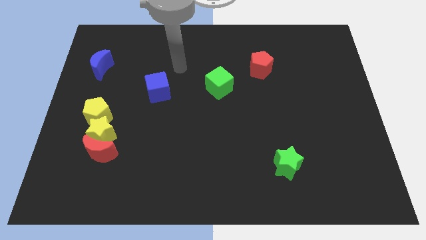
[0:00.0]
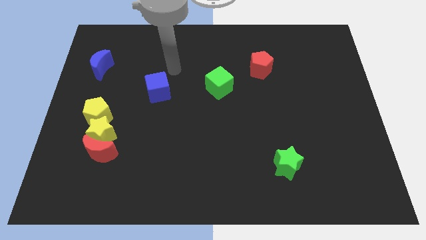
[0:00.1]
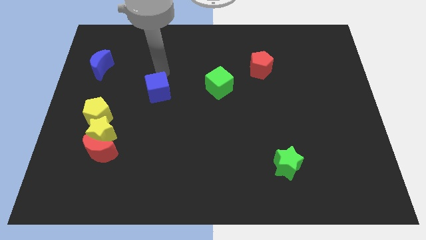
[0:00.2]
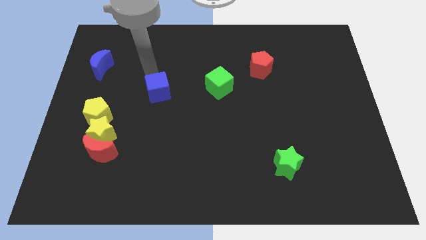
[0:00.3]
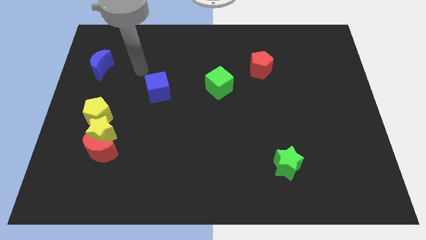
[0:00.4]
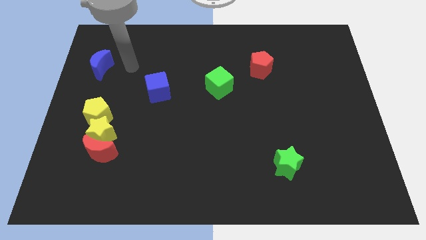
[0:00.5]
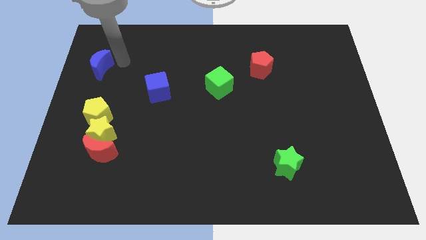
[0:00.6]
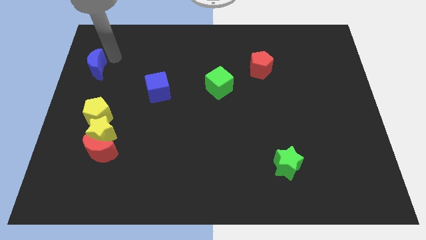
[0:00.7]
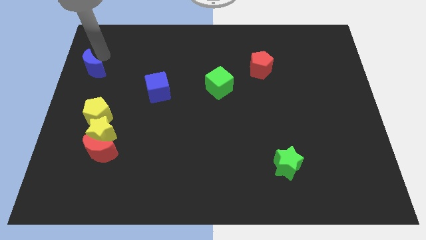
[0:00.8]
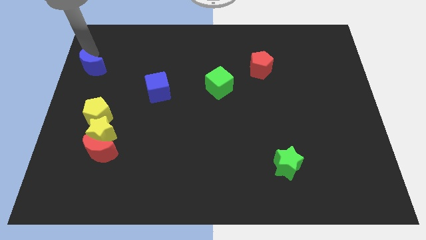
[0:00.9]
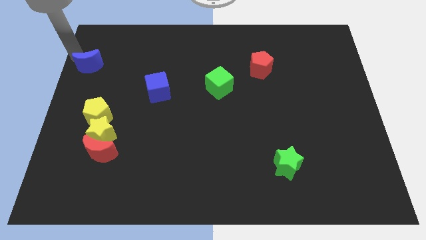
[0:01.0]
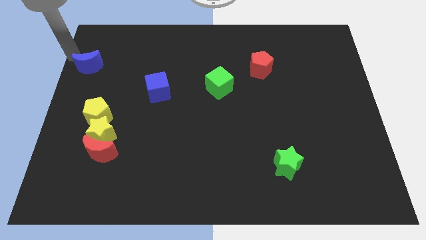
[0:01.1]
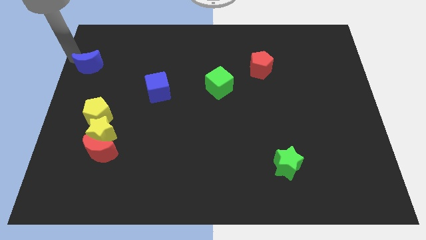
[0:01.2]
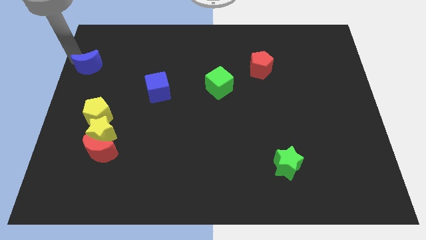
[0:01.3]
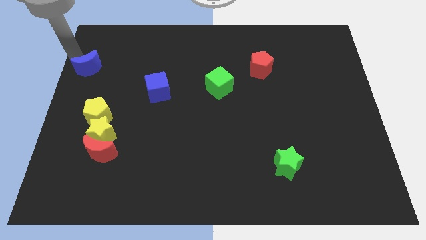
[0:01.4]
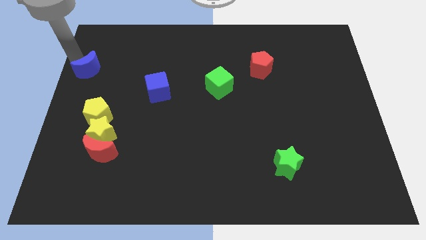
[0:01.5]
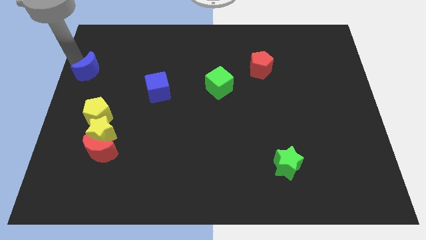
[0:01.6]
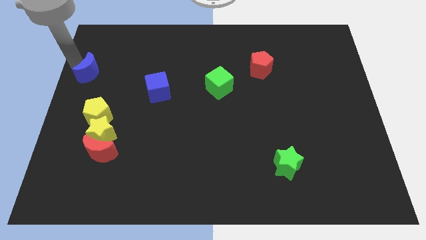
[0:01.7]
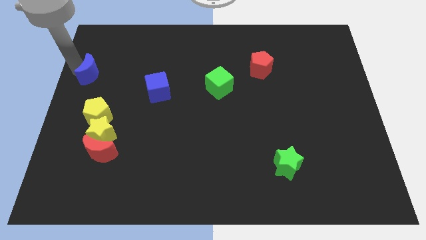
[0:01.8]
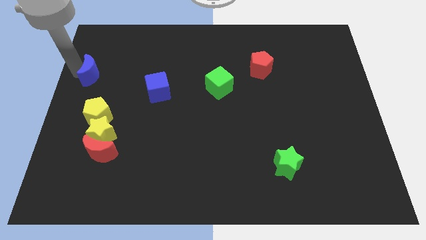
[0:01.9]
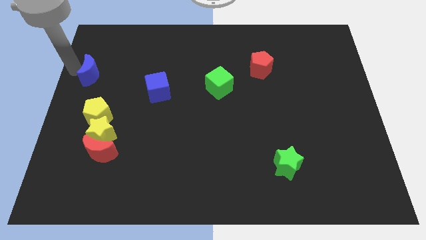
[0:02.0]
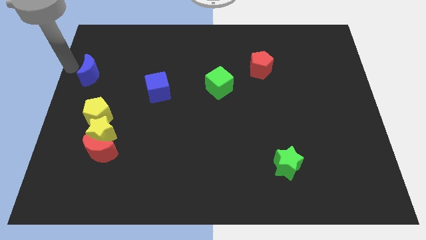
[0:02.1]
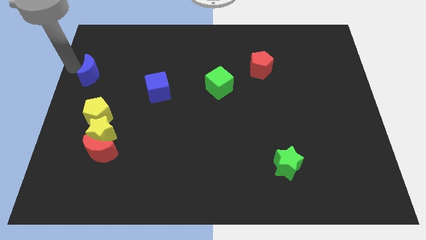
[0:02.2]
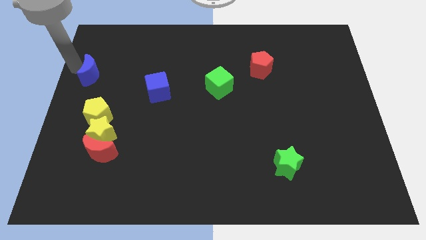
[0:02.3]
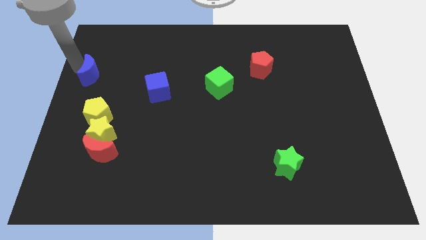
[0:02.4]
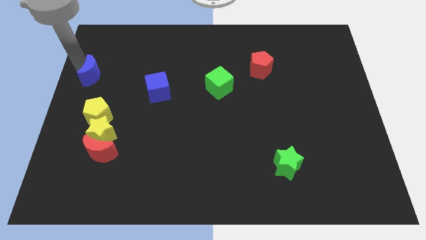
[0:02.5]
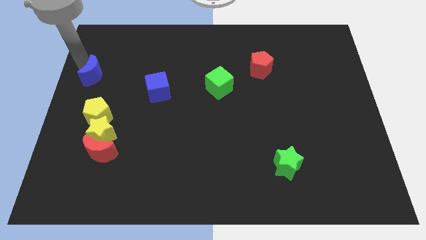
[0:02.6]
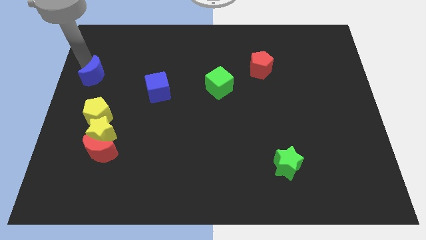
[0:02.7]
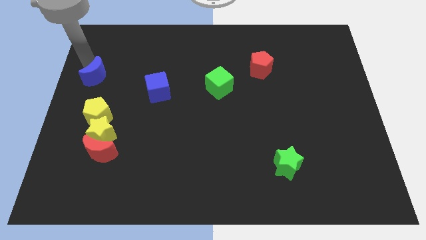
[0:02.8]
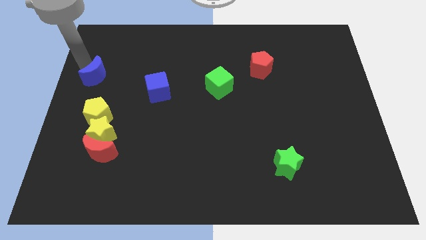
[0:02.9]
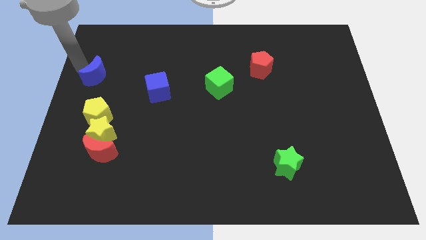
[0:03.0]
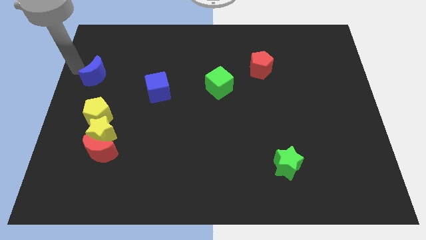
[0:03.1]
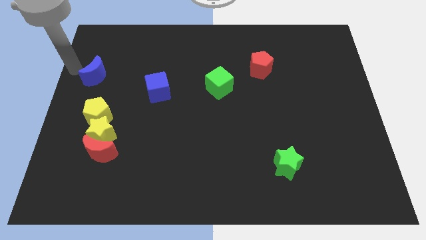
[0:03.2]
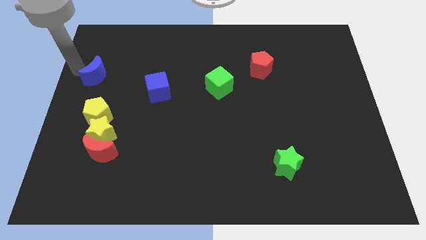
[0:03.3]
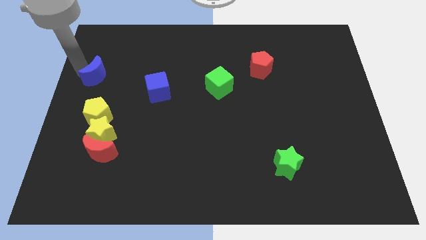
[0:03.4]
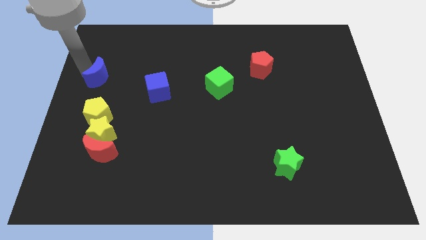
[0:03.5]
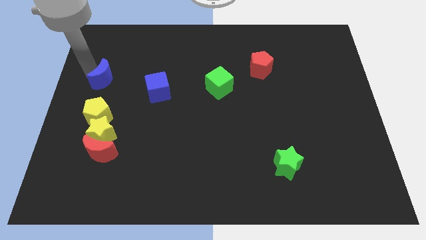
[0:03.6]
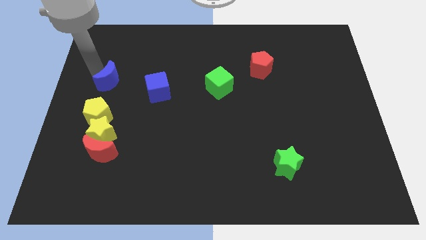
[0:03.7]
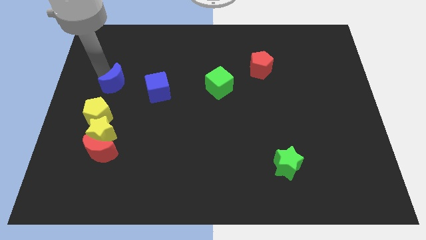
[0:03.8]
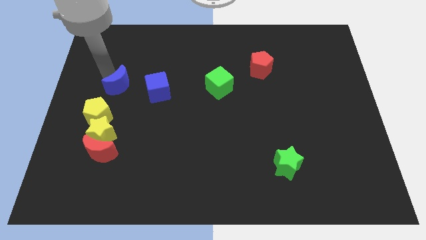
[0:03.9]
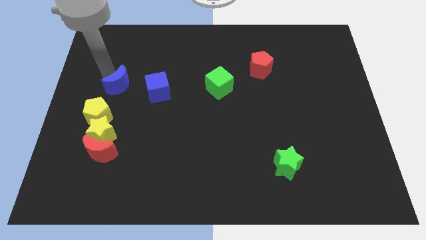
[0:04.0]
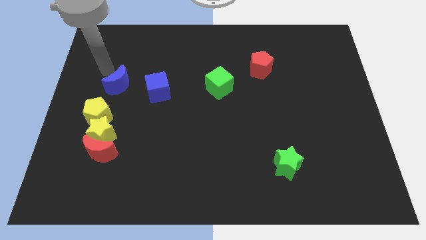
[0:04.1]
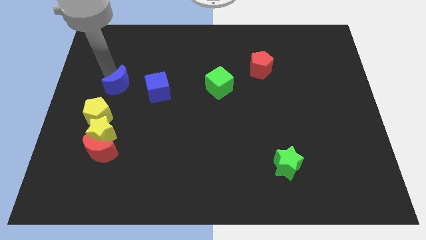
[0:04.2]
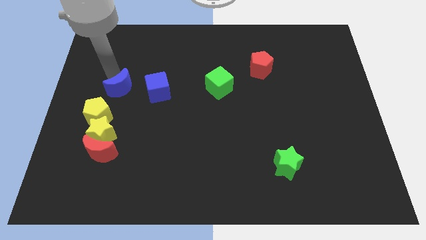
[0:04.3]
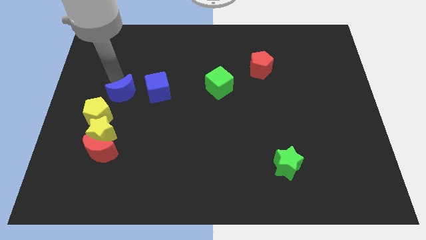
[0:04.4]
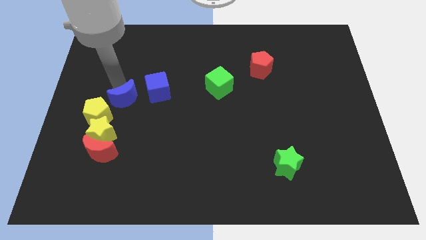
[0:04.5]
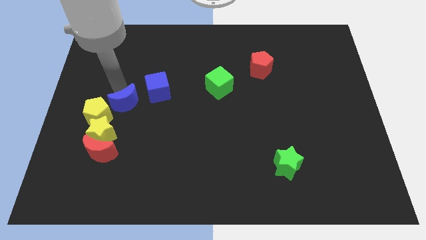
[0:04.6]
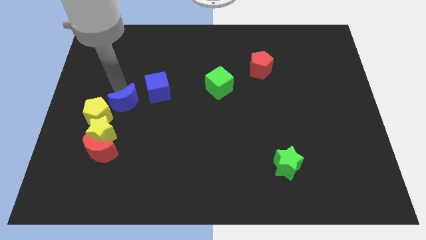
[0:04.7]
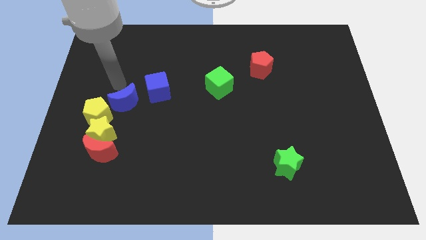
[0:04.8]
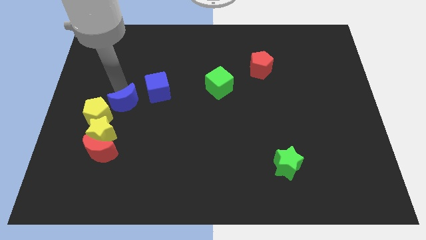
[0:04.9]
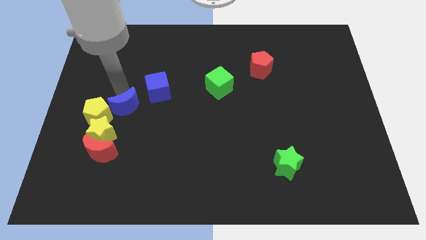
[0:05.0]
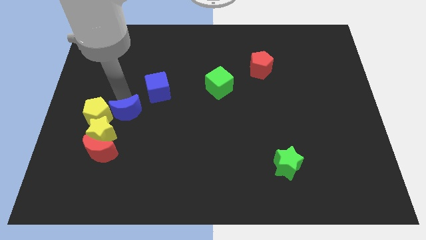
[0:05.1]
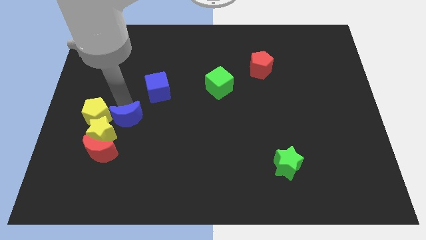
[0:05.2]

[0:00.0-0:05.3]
slide the blue moon to the bottom right of the yellow pentagon

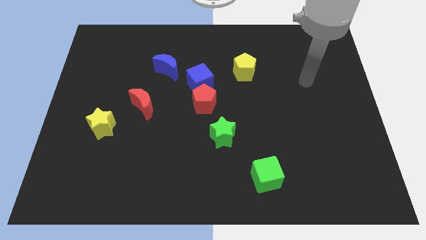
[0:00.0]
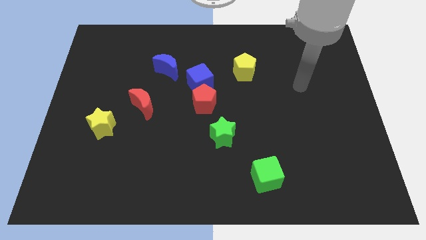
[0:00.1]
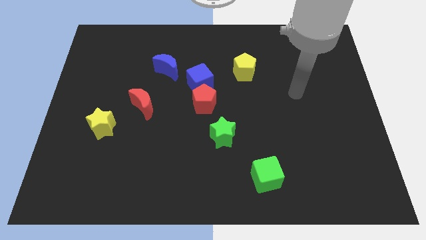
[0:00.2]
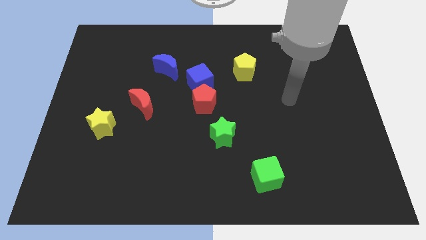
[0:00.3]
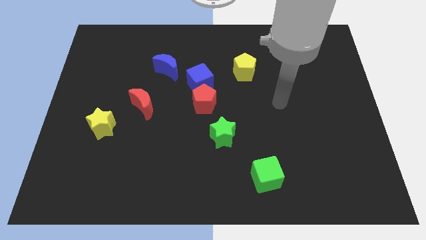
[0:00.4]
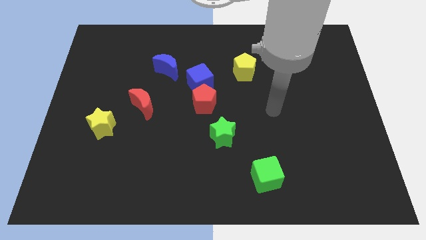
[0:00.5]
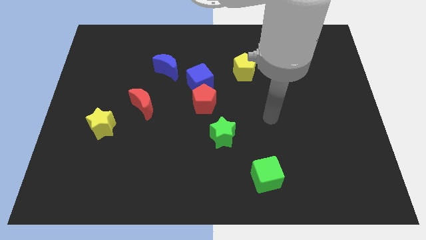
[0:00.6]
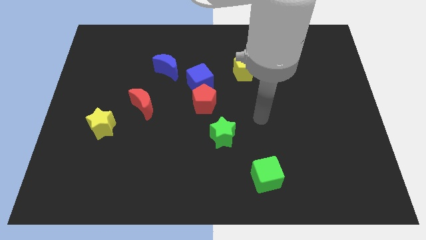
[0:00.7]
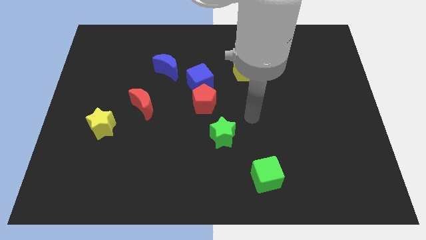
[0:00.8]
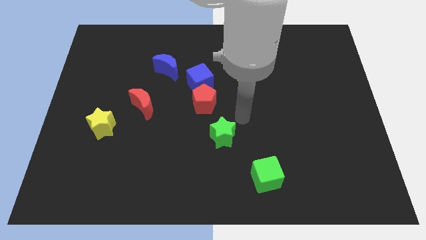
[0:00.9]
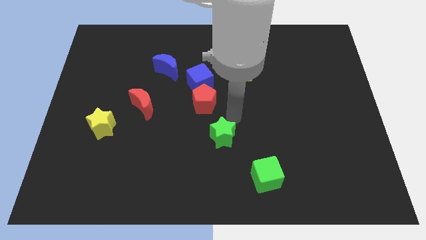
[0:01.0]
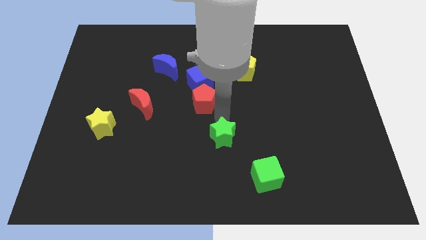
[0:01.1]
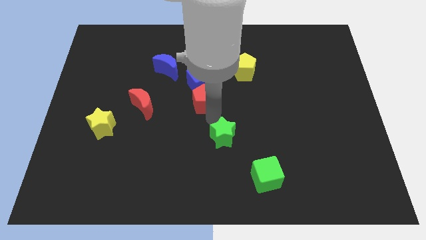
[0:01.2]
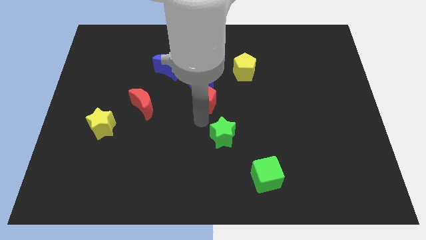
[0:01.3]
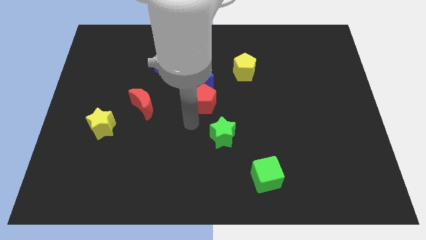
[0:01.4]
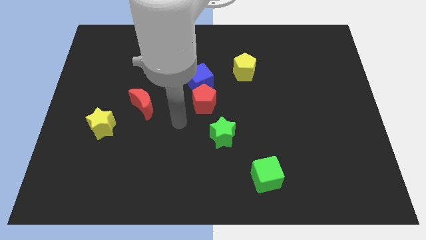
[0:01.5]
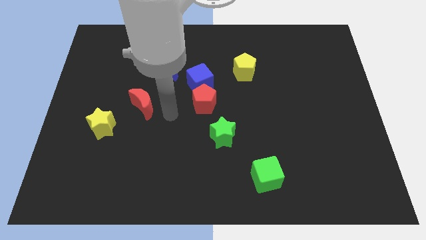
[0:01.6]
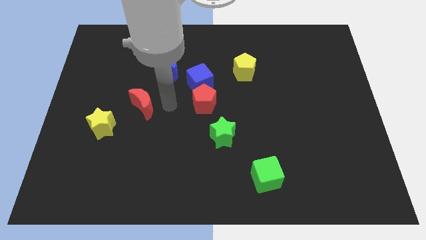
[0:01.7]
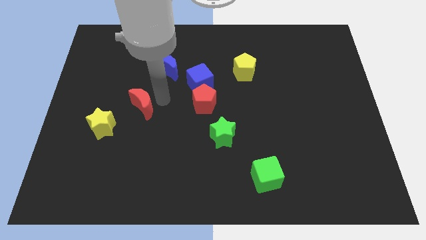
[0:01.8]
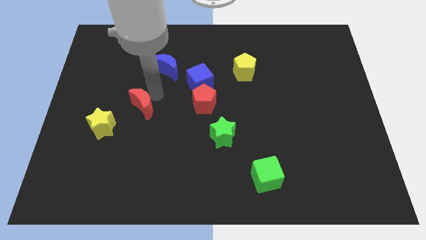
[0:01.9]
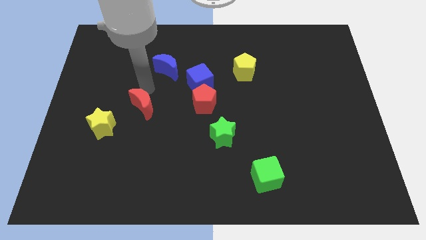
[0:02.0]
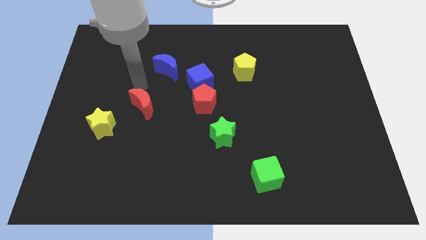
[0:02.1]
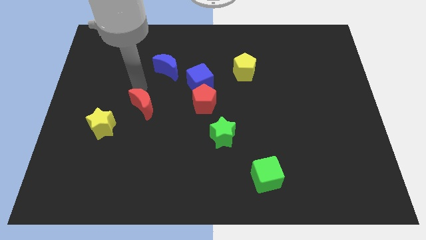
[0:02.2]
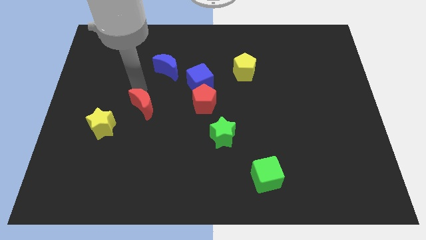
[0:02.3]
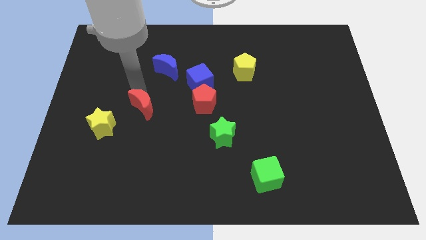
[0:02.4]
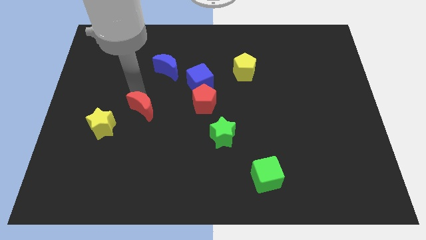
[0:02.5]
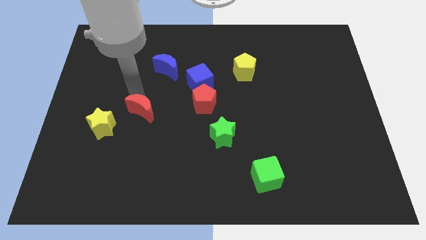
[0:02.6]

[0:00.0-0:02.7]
put the red moon right of the yellow star
